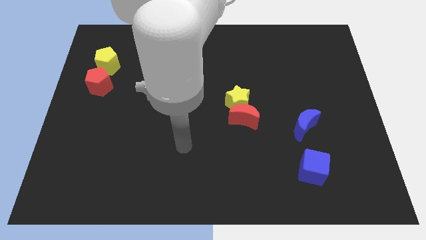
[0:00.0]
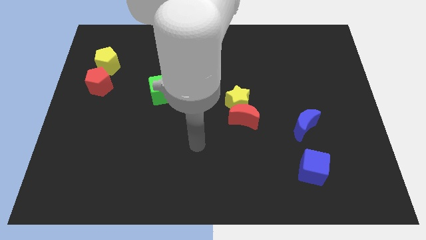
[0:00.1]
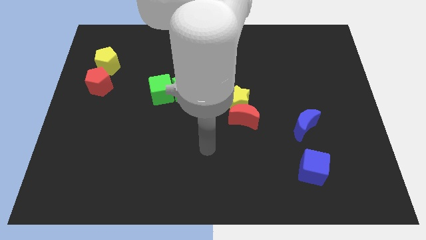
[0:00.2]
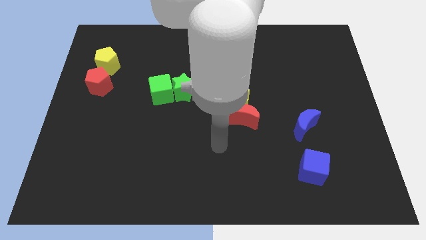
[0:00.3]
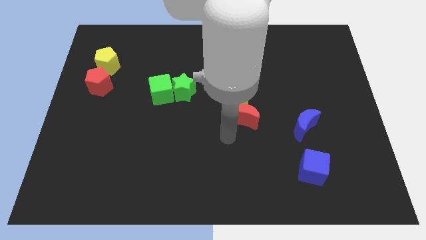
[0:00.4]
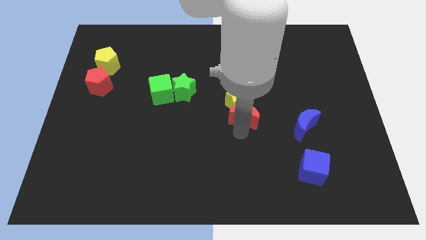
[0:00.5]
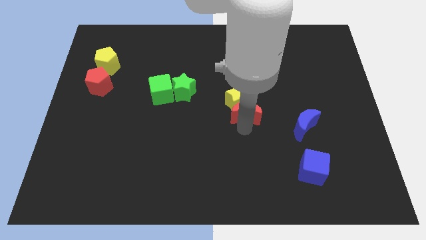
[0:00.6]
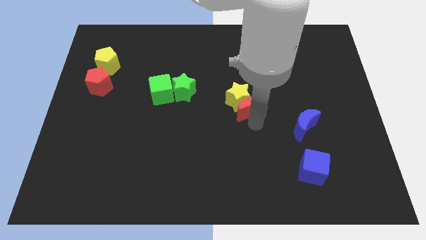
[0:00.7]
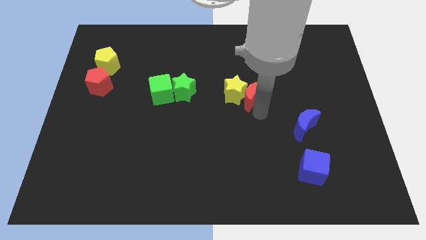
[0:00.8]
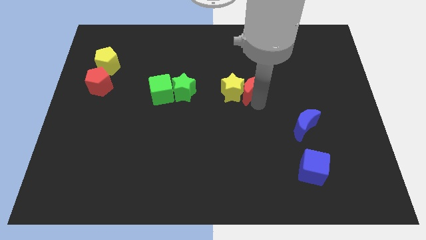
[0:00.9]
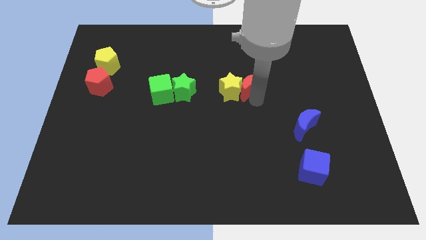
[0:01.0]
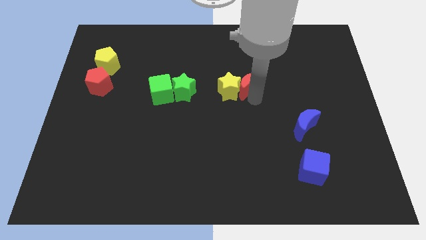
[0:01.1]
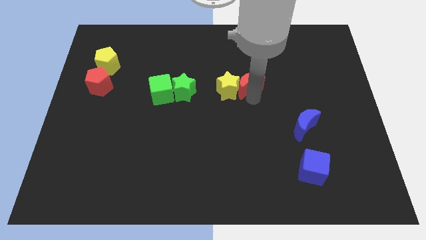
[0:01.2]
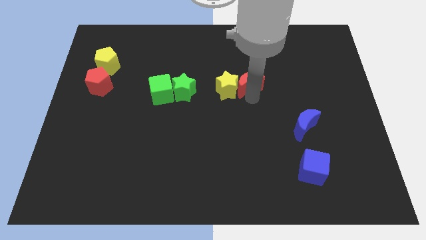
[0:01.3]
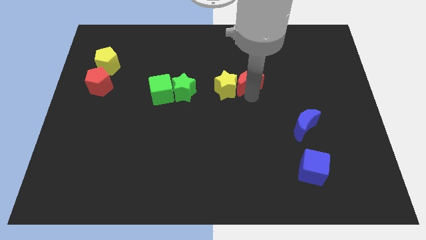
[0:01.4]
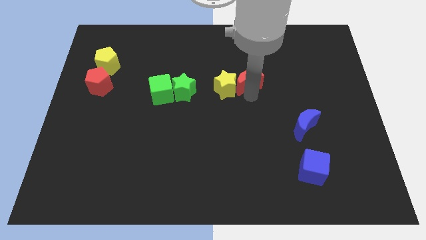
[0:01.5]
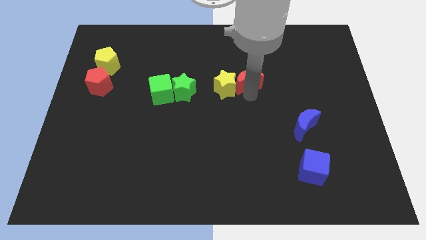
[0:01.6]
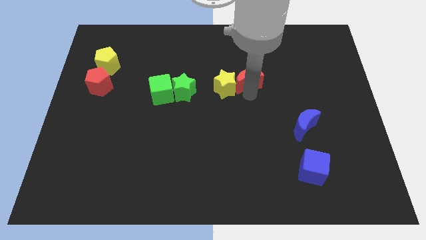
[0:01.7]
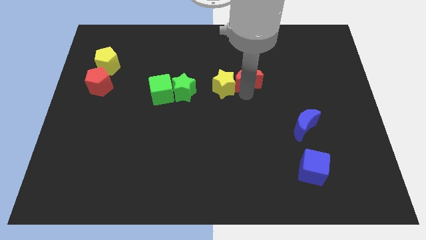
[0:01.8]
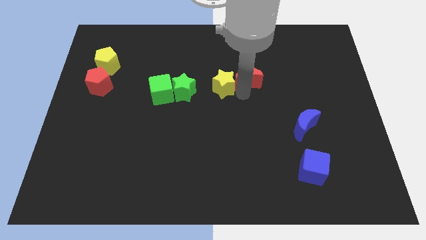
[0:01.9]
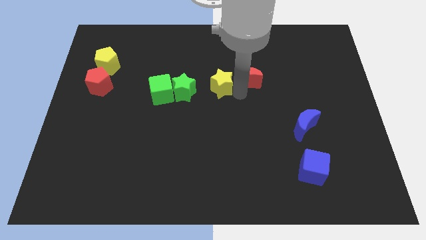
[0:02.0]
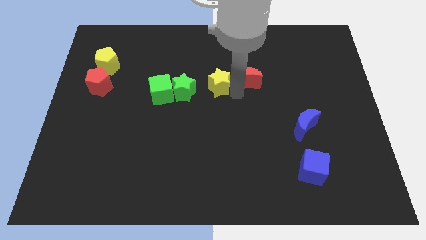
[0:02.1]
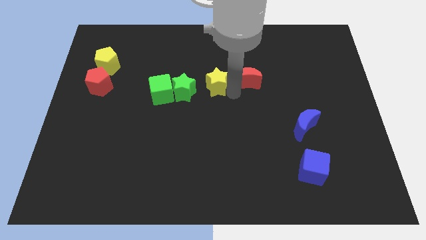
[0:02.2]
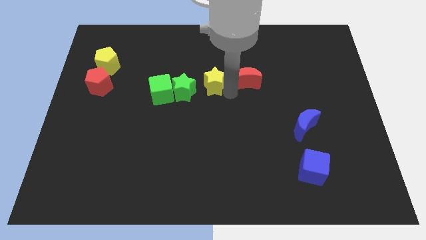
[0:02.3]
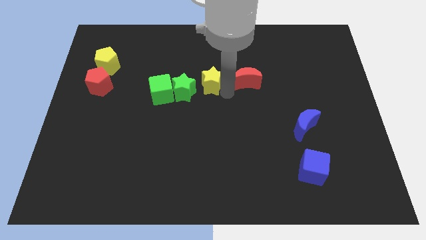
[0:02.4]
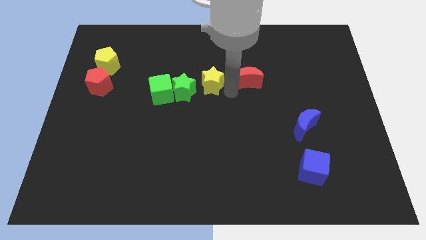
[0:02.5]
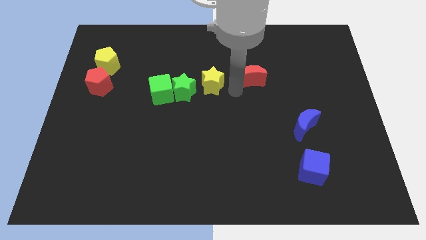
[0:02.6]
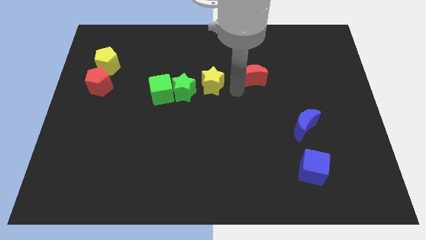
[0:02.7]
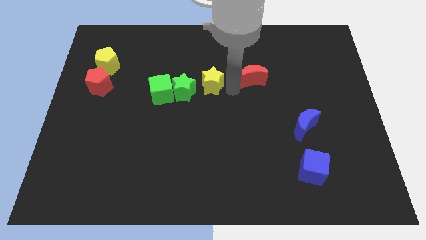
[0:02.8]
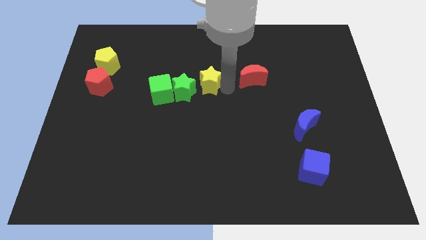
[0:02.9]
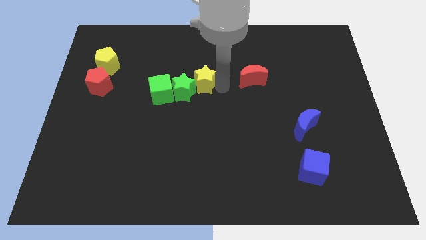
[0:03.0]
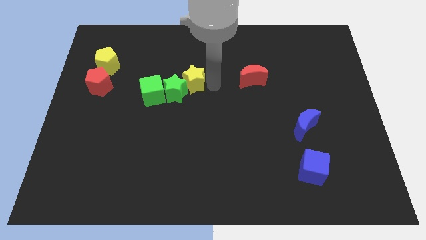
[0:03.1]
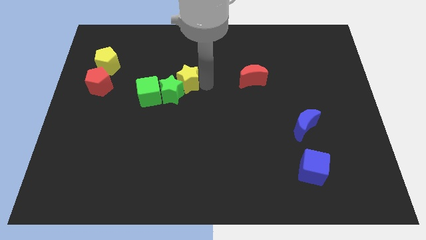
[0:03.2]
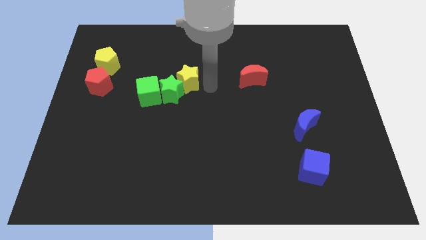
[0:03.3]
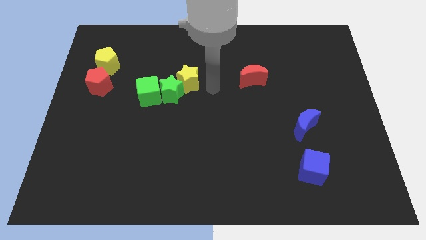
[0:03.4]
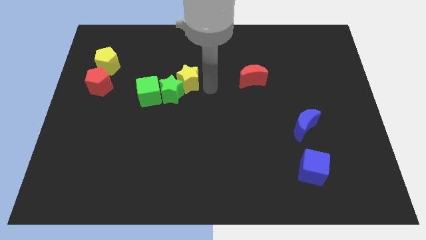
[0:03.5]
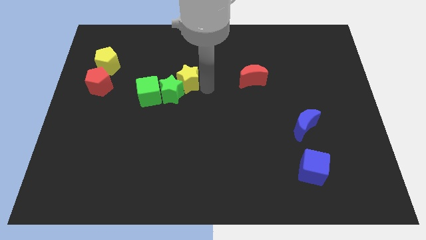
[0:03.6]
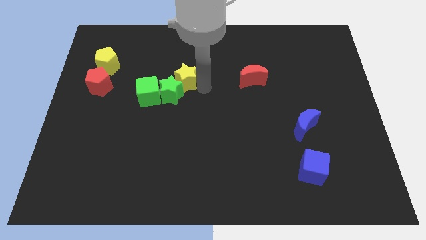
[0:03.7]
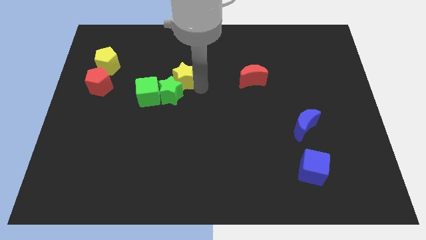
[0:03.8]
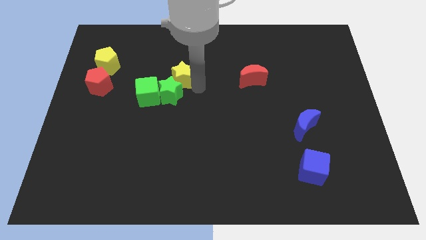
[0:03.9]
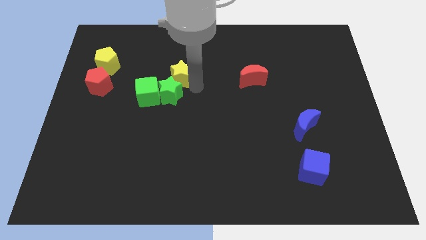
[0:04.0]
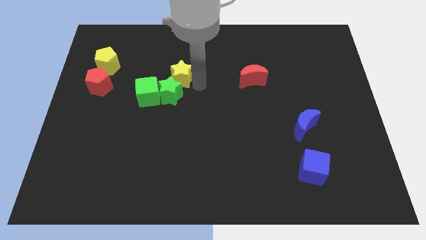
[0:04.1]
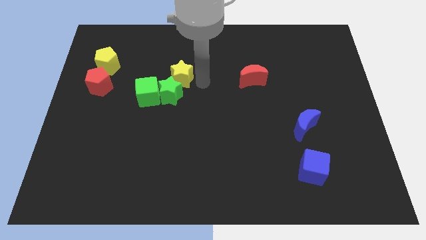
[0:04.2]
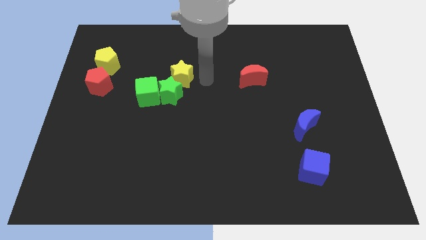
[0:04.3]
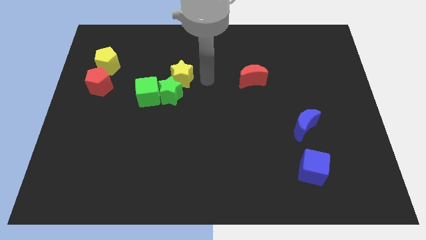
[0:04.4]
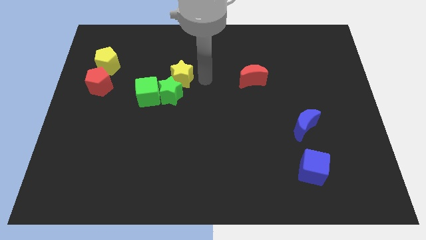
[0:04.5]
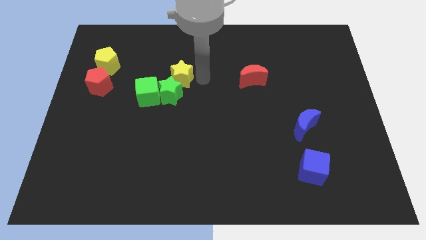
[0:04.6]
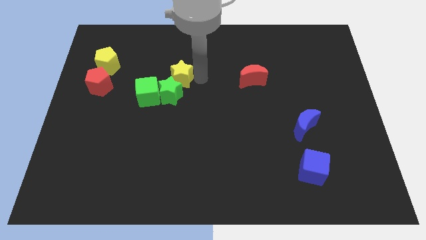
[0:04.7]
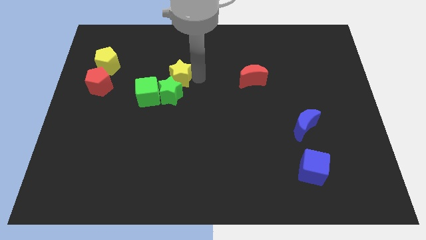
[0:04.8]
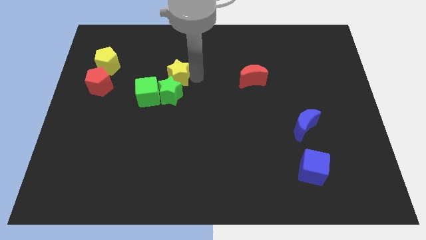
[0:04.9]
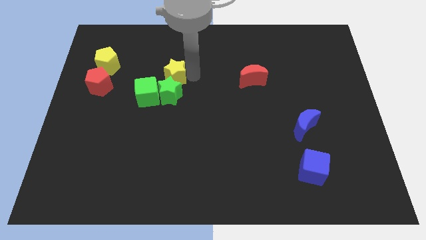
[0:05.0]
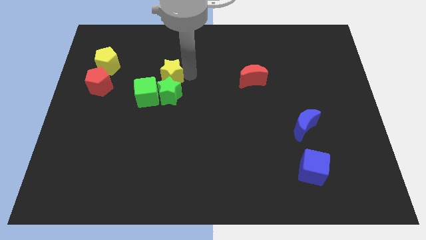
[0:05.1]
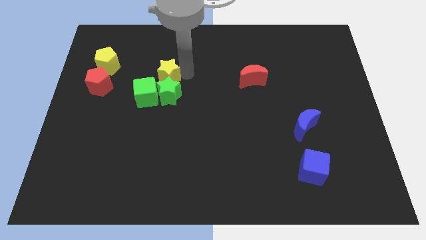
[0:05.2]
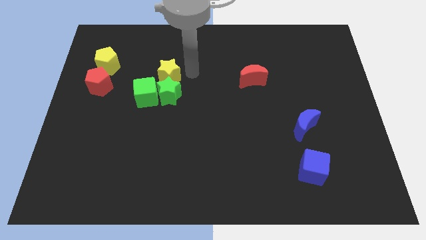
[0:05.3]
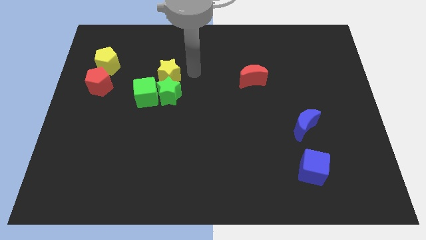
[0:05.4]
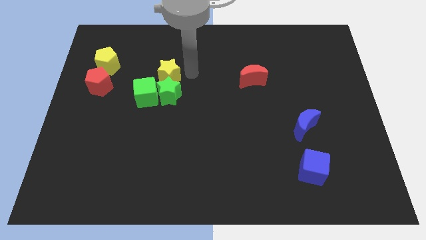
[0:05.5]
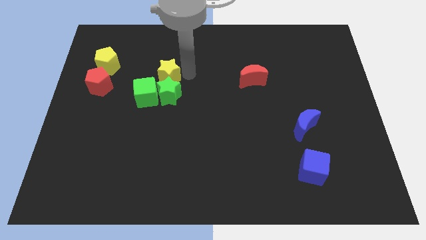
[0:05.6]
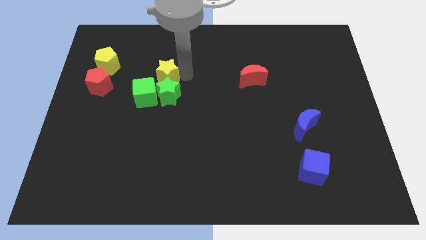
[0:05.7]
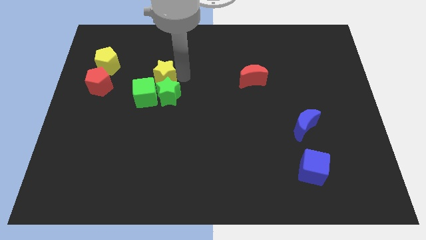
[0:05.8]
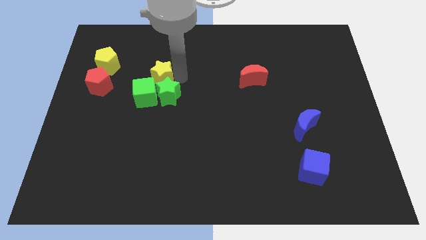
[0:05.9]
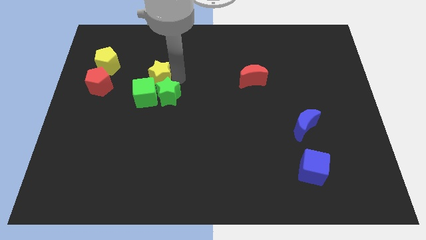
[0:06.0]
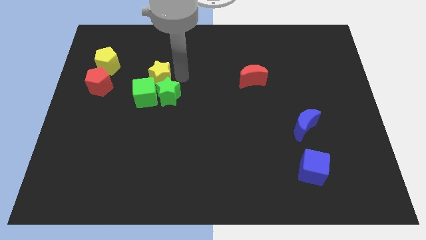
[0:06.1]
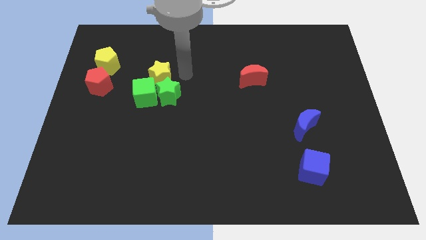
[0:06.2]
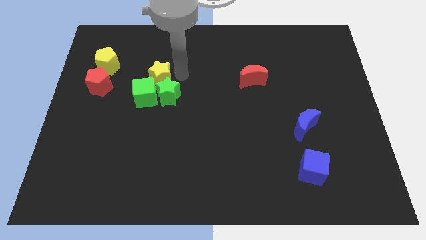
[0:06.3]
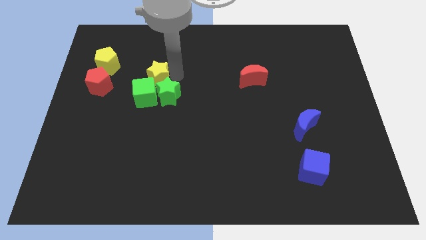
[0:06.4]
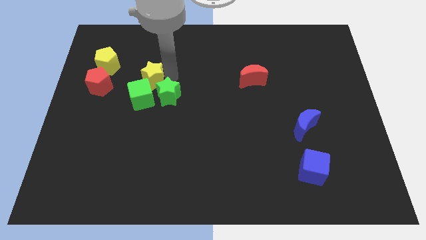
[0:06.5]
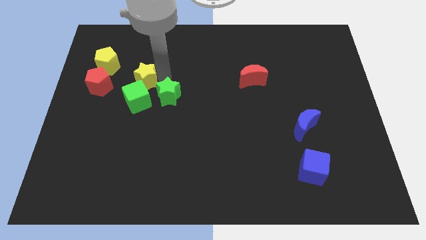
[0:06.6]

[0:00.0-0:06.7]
move the yellow star to the bottom right side of the yellow pentagon

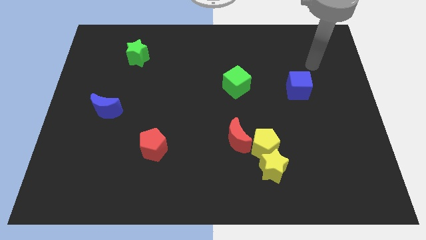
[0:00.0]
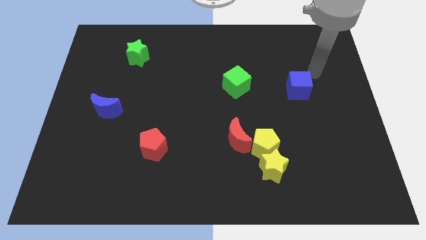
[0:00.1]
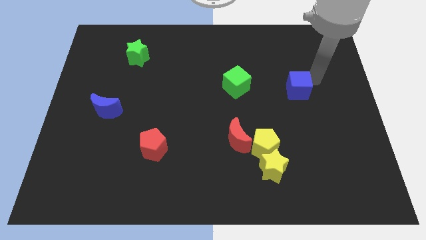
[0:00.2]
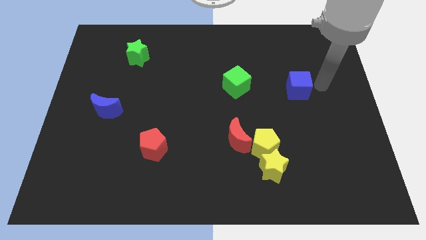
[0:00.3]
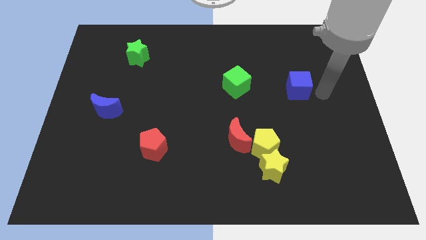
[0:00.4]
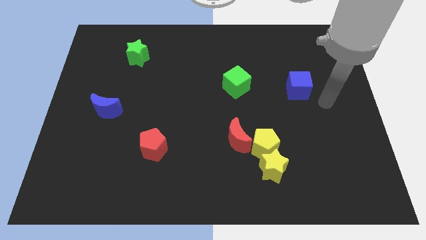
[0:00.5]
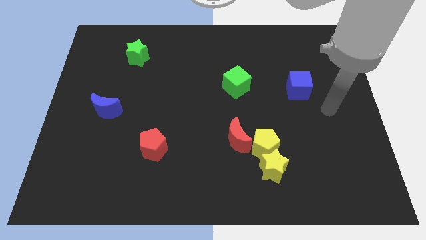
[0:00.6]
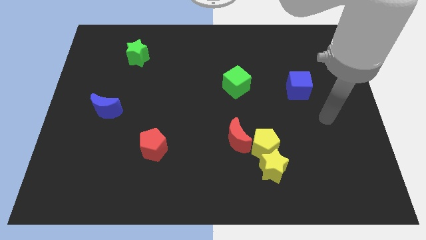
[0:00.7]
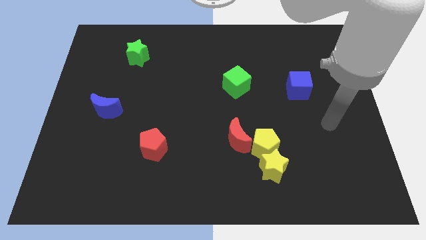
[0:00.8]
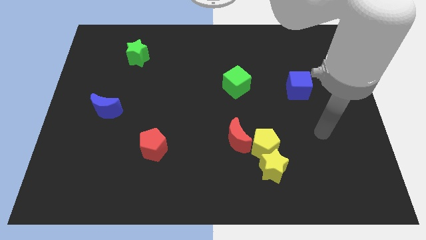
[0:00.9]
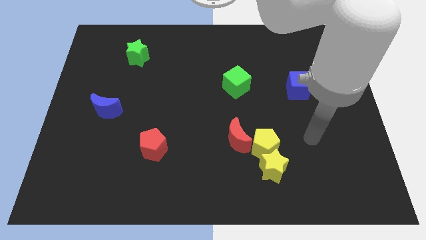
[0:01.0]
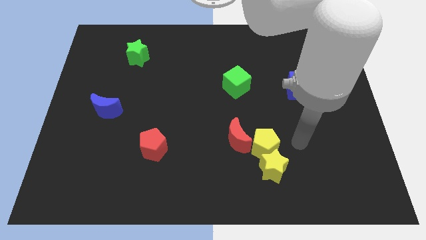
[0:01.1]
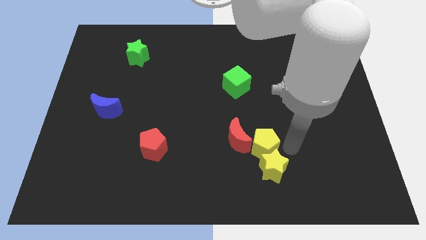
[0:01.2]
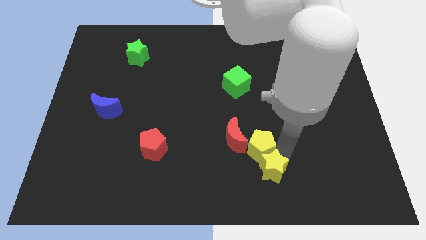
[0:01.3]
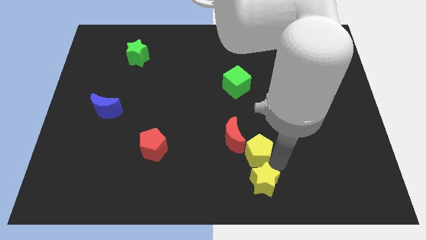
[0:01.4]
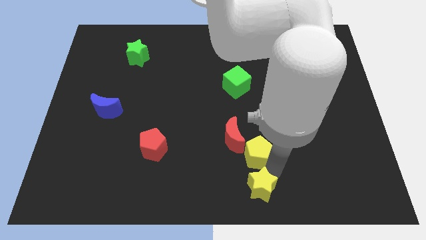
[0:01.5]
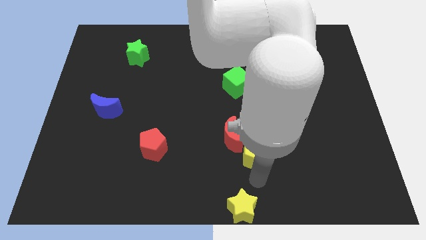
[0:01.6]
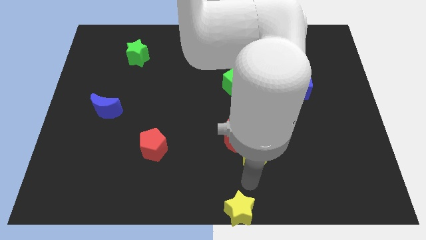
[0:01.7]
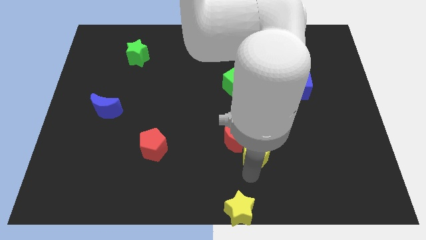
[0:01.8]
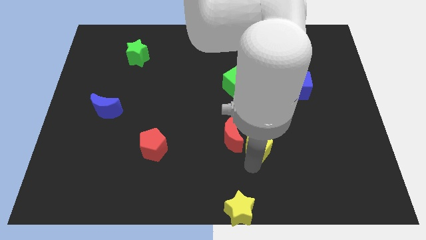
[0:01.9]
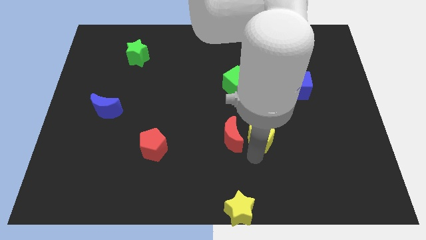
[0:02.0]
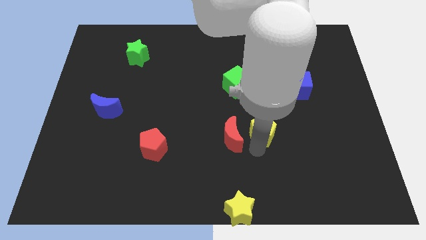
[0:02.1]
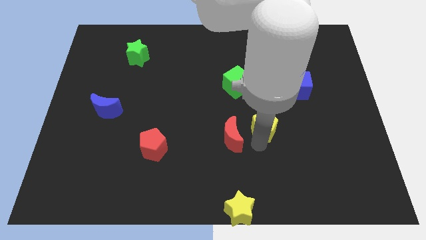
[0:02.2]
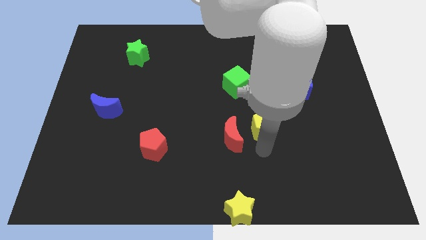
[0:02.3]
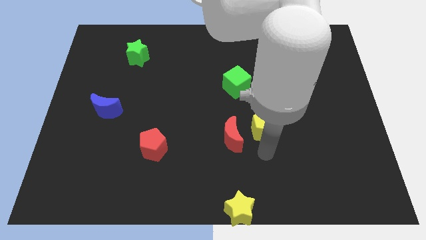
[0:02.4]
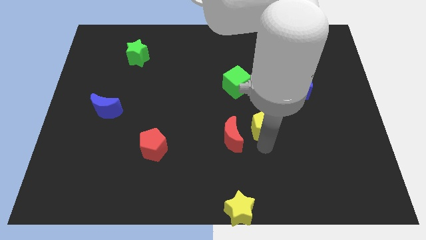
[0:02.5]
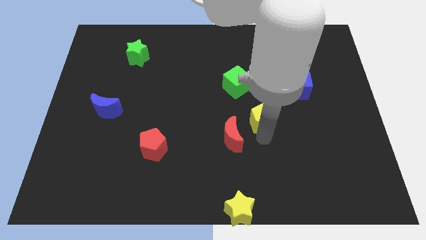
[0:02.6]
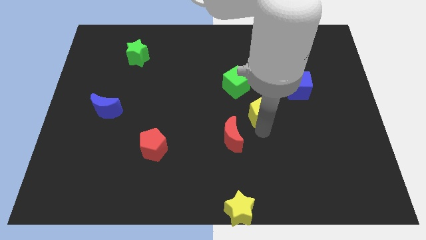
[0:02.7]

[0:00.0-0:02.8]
move the yellow pentagon to the bottom right side of the green cube
